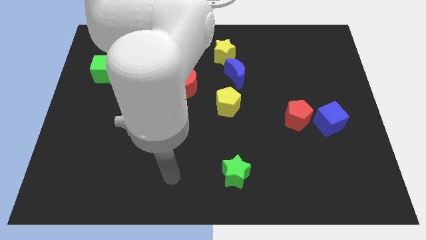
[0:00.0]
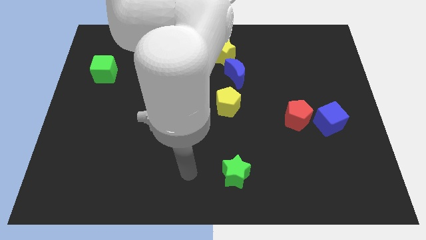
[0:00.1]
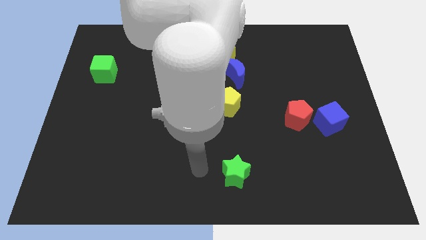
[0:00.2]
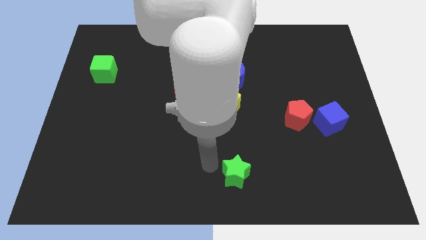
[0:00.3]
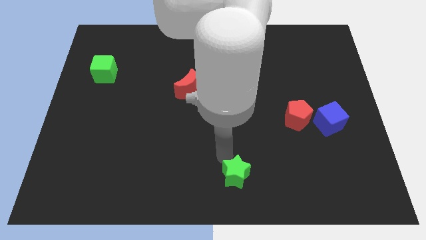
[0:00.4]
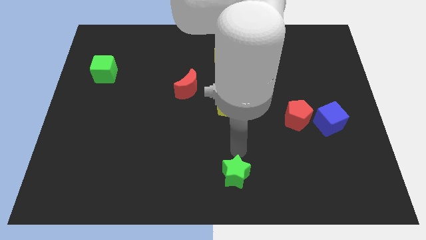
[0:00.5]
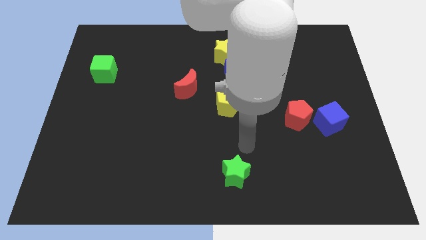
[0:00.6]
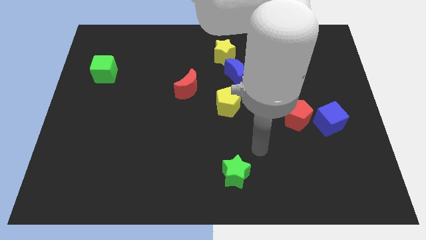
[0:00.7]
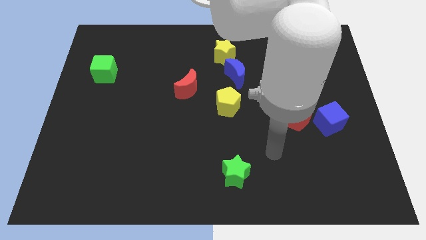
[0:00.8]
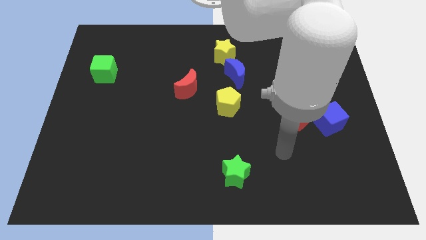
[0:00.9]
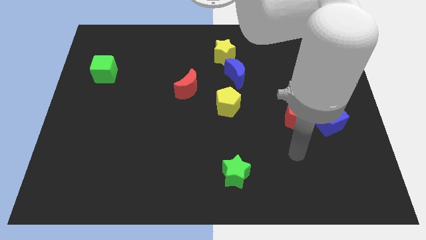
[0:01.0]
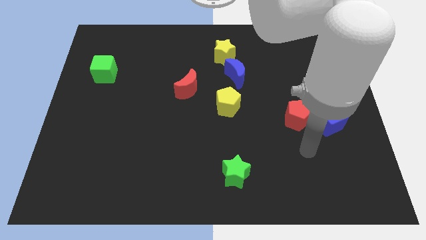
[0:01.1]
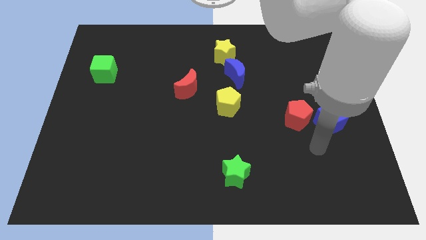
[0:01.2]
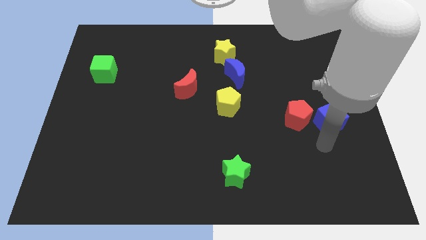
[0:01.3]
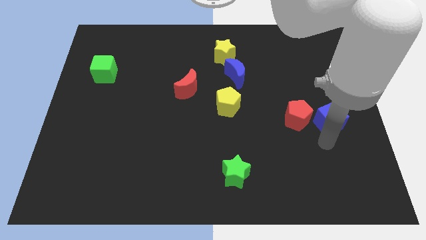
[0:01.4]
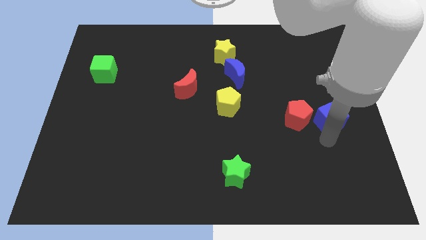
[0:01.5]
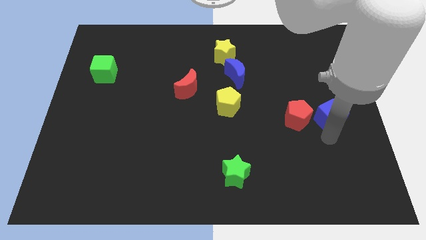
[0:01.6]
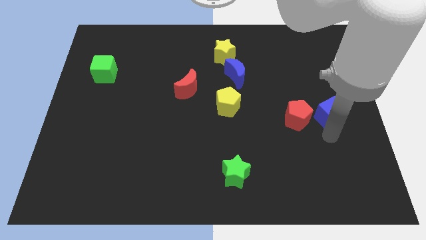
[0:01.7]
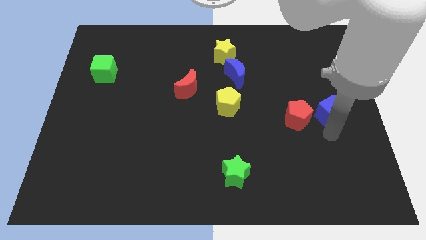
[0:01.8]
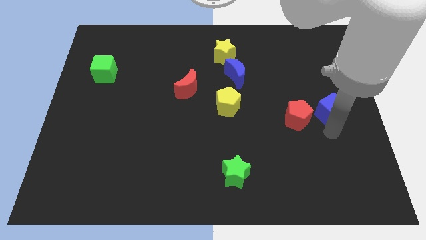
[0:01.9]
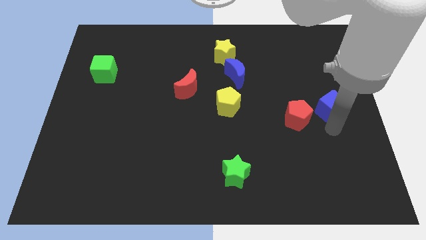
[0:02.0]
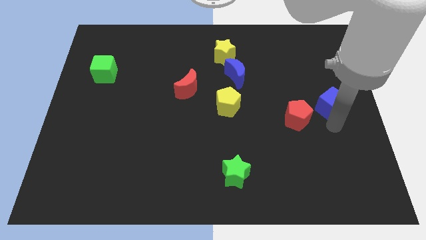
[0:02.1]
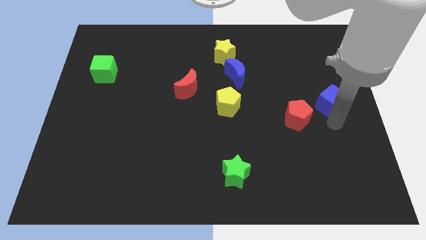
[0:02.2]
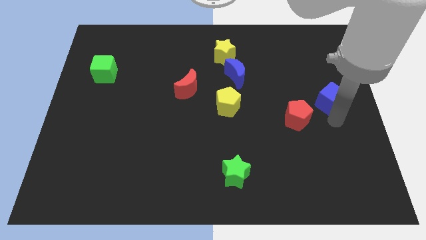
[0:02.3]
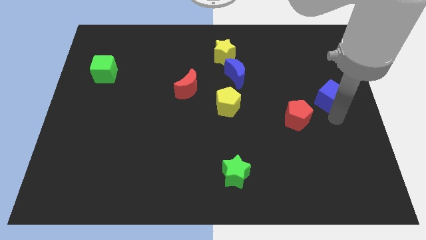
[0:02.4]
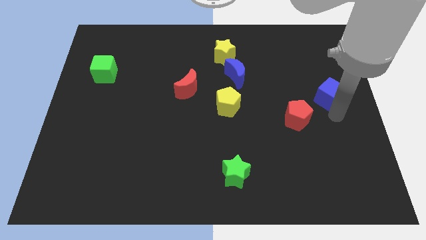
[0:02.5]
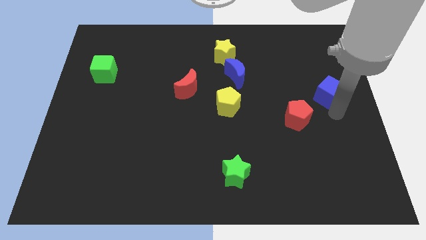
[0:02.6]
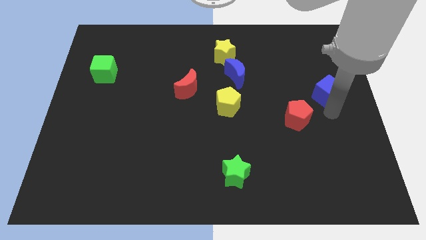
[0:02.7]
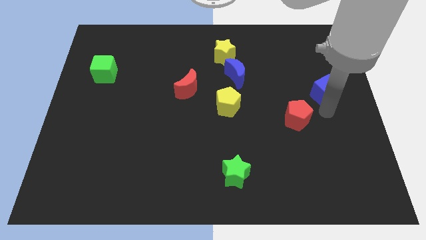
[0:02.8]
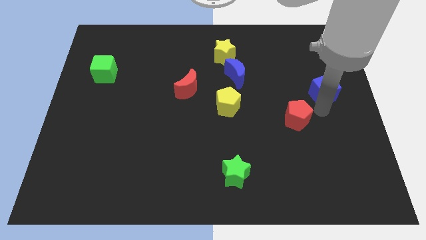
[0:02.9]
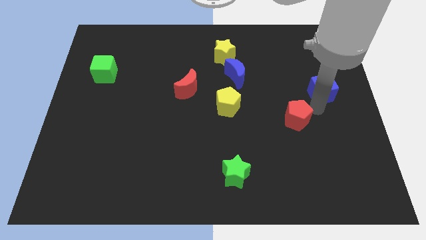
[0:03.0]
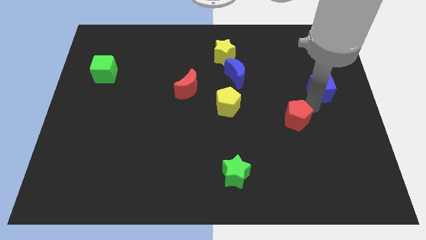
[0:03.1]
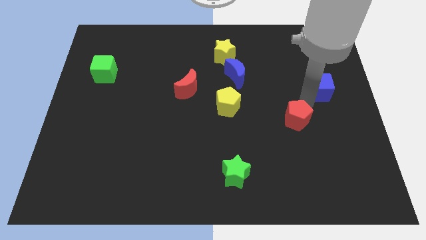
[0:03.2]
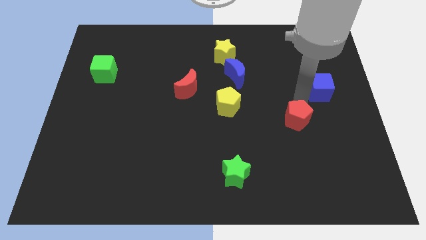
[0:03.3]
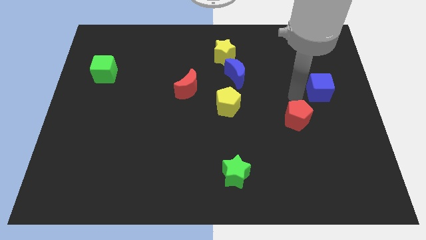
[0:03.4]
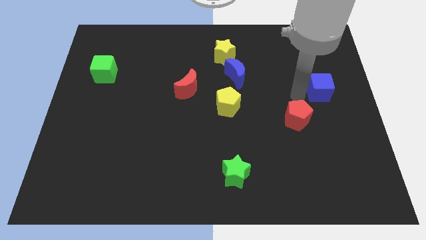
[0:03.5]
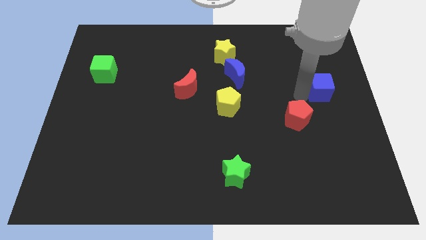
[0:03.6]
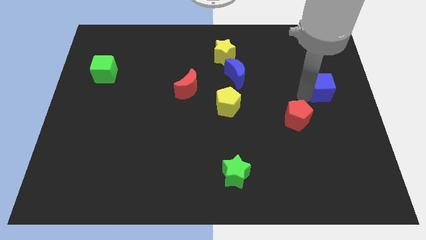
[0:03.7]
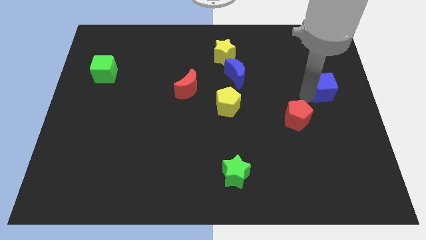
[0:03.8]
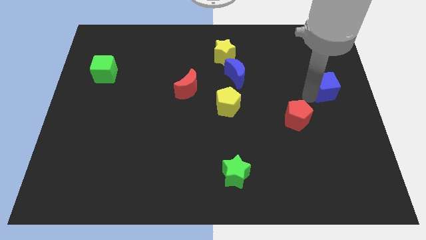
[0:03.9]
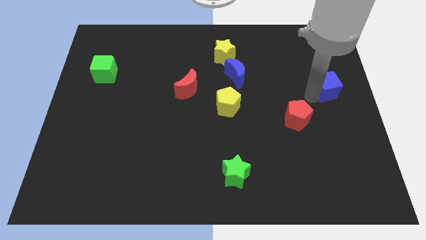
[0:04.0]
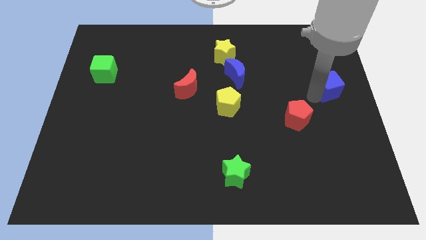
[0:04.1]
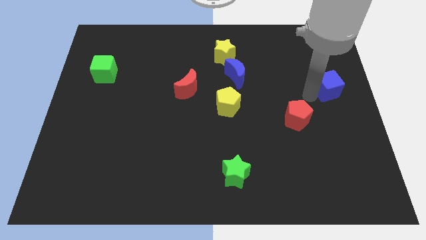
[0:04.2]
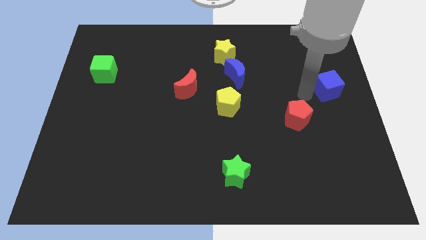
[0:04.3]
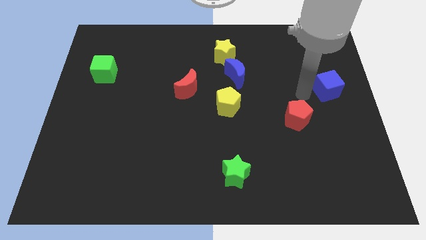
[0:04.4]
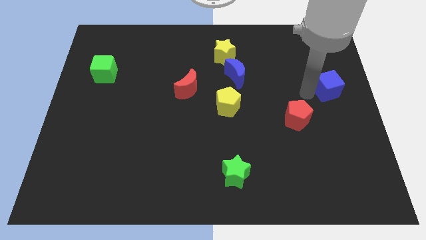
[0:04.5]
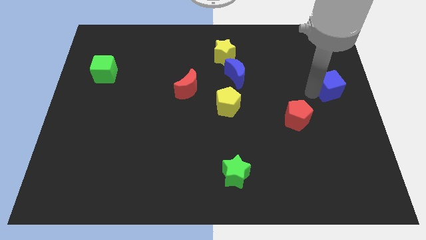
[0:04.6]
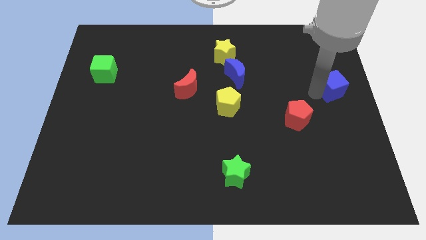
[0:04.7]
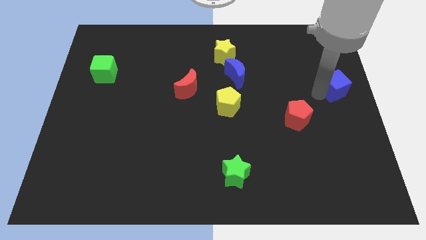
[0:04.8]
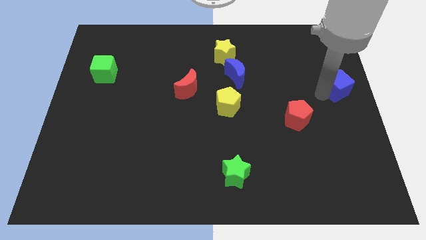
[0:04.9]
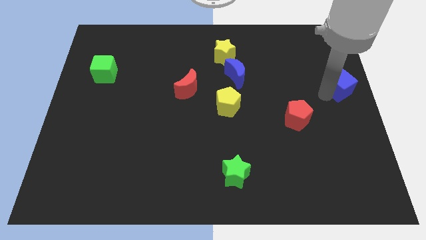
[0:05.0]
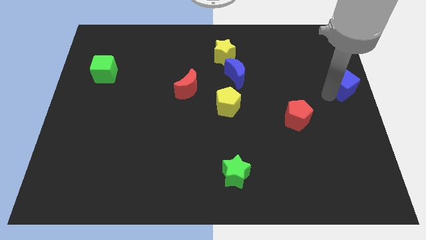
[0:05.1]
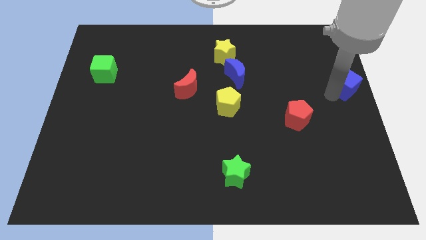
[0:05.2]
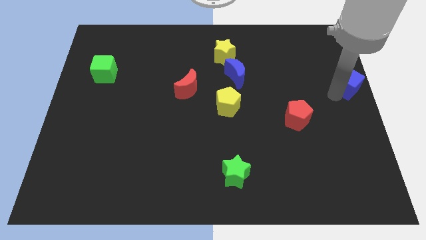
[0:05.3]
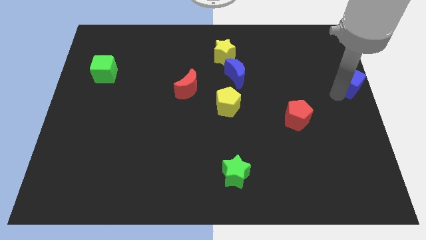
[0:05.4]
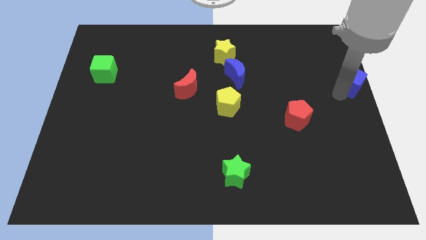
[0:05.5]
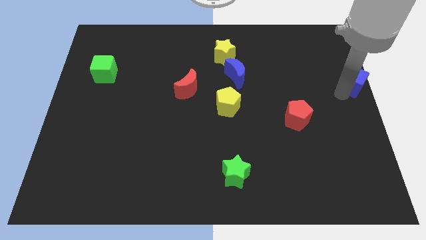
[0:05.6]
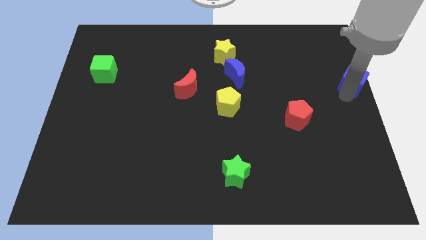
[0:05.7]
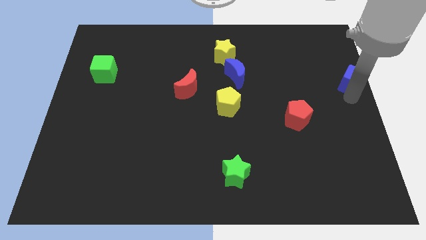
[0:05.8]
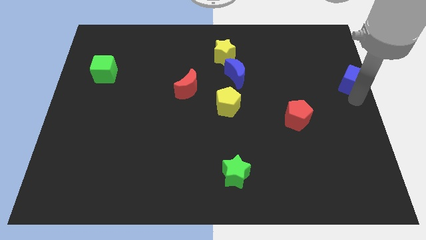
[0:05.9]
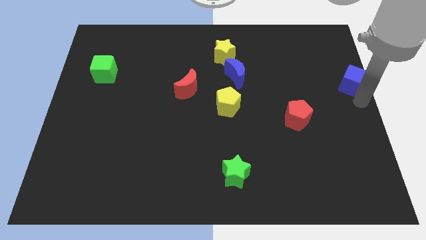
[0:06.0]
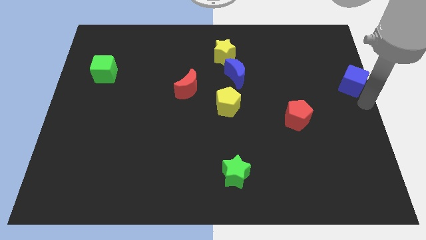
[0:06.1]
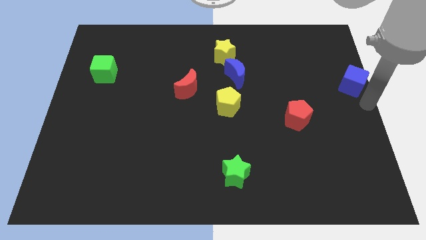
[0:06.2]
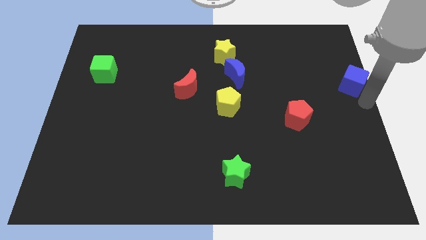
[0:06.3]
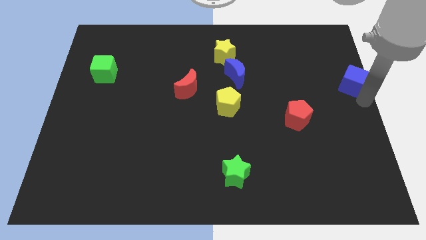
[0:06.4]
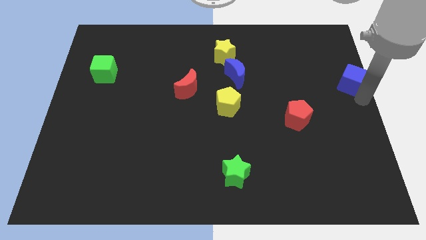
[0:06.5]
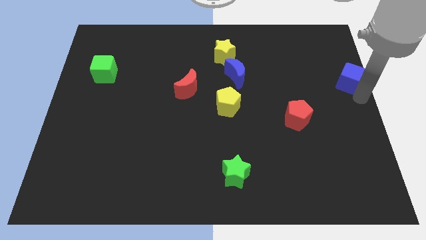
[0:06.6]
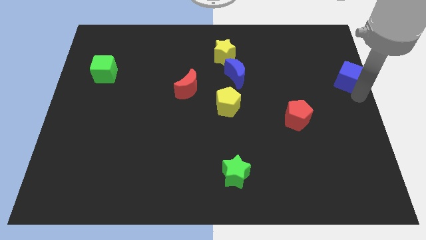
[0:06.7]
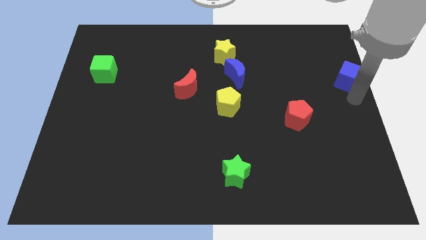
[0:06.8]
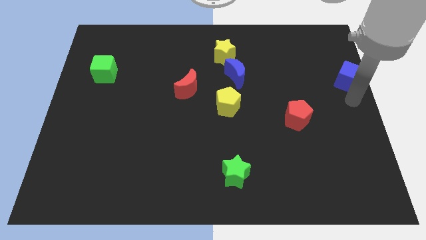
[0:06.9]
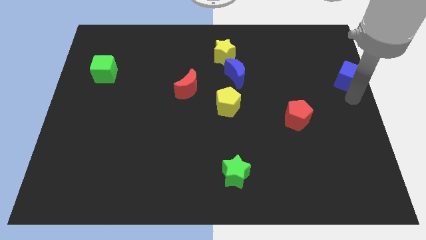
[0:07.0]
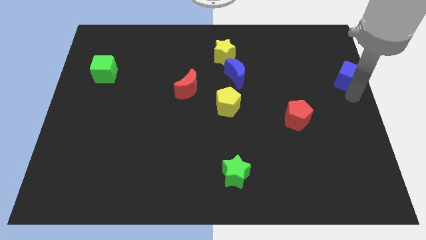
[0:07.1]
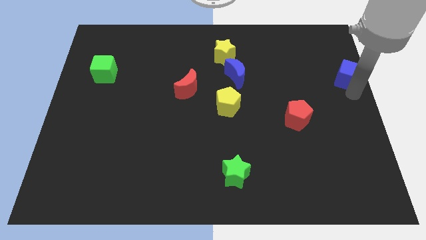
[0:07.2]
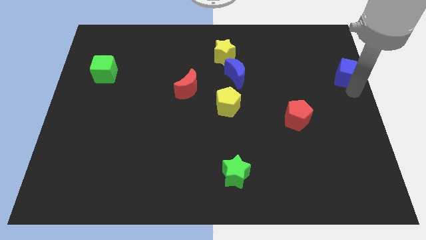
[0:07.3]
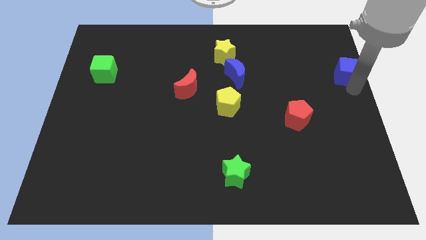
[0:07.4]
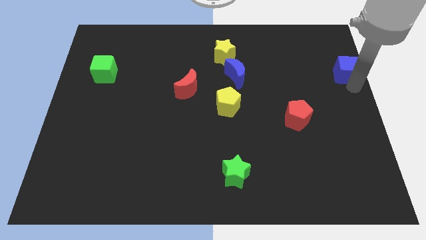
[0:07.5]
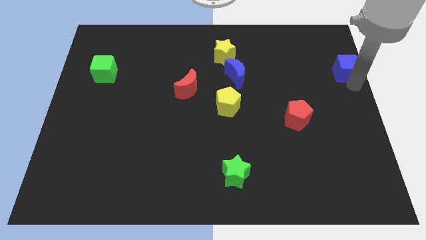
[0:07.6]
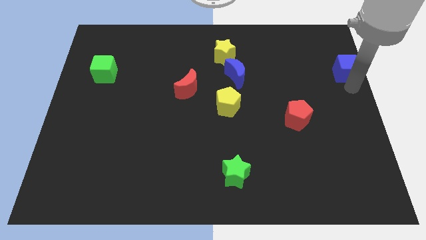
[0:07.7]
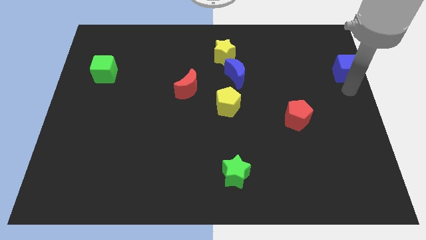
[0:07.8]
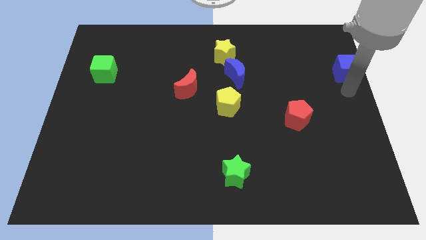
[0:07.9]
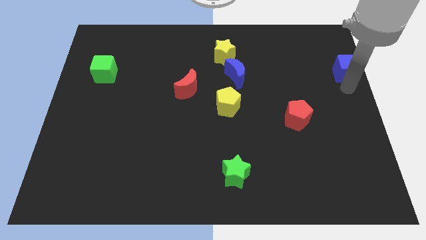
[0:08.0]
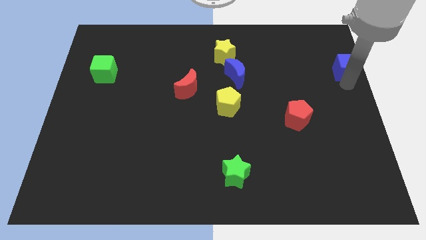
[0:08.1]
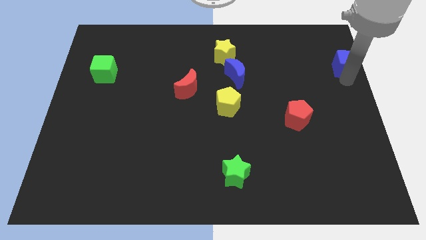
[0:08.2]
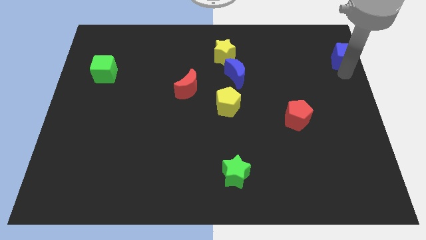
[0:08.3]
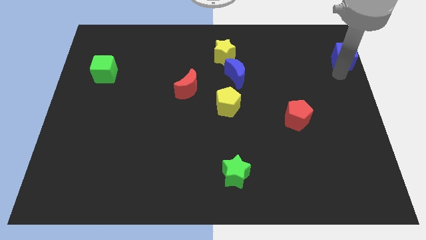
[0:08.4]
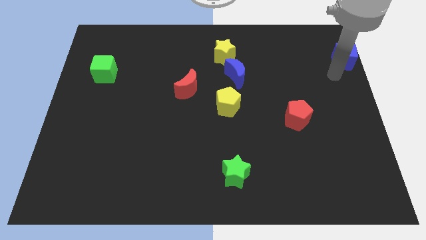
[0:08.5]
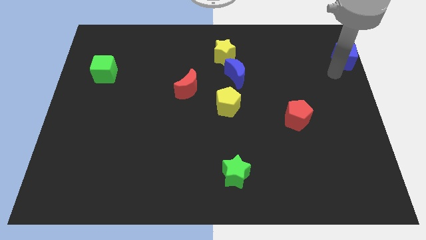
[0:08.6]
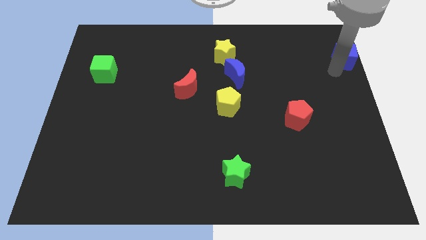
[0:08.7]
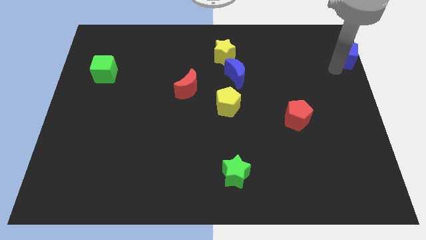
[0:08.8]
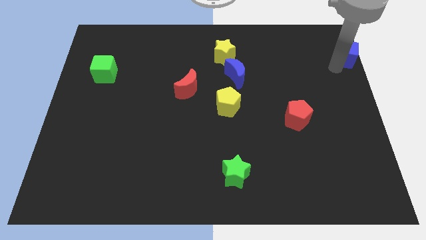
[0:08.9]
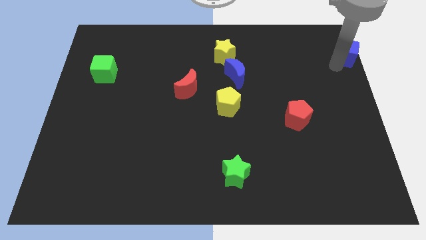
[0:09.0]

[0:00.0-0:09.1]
put the blue cube to the top right
